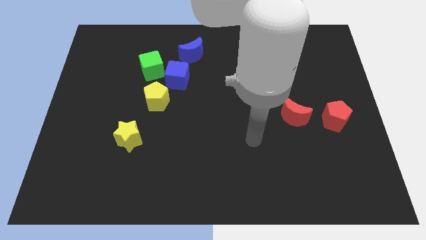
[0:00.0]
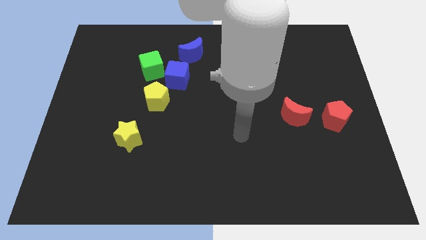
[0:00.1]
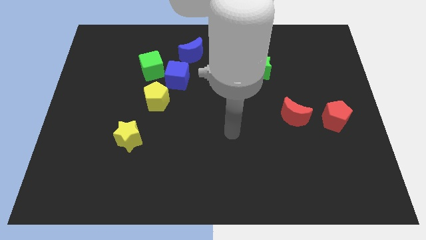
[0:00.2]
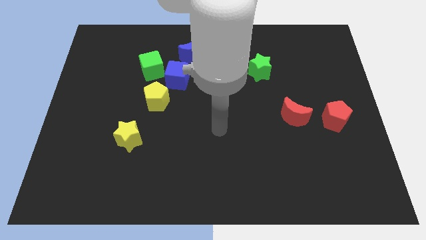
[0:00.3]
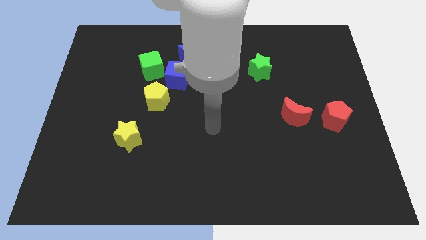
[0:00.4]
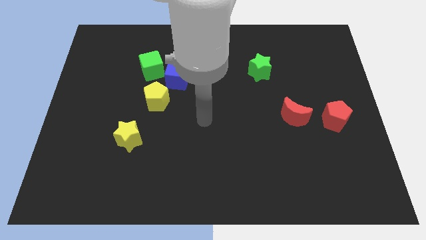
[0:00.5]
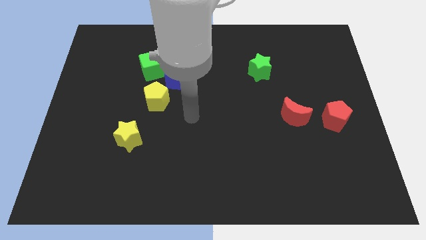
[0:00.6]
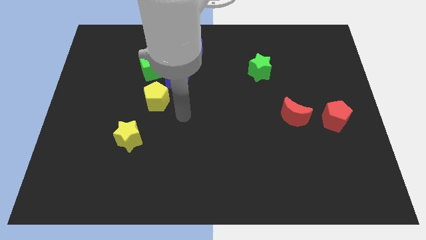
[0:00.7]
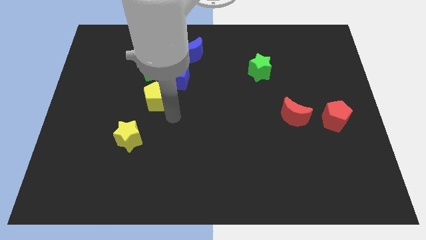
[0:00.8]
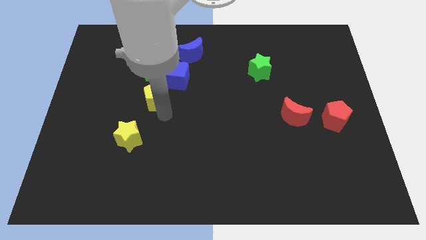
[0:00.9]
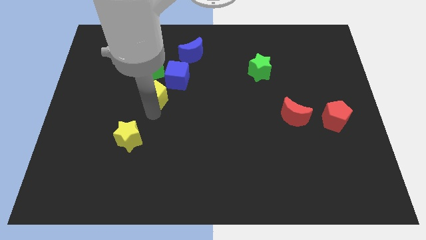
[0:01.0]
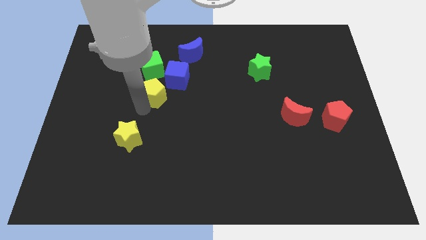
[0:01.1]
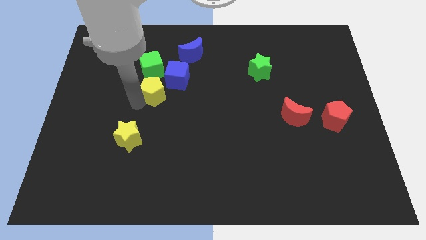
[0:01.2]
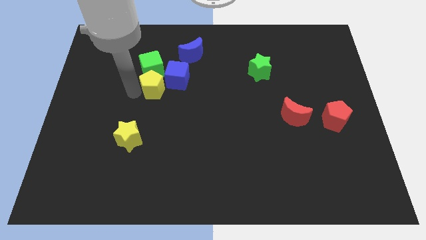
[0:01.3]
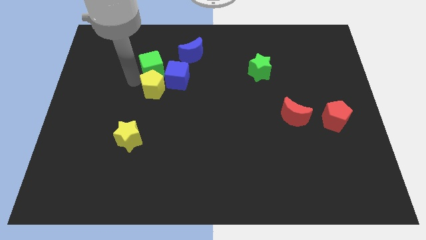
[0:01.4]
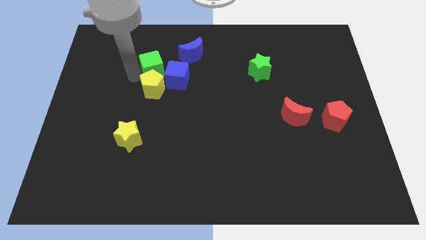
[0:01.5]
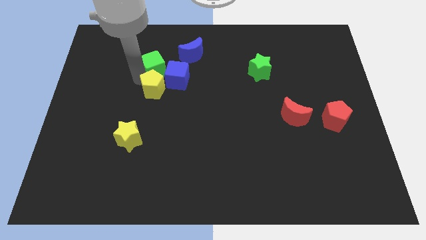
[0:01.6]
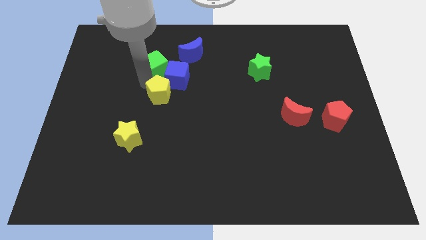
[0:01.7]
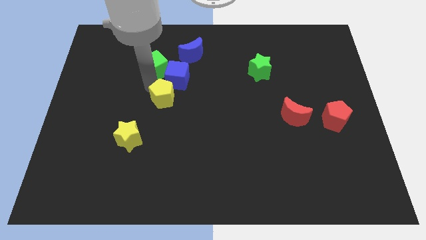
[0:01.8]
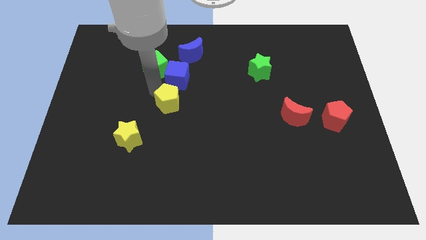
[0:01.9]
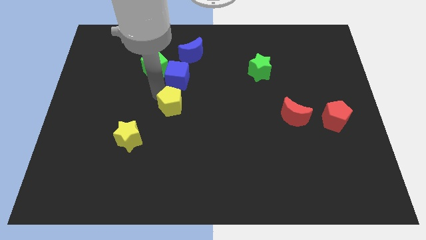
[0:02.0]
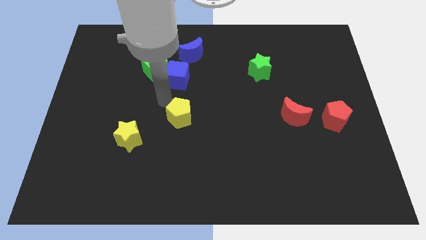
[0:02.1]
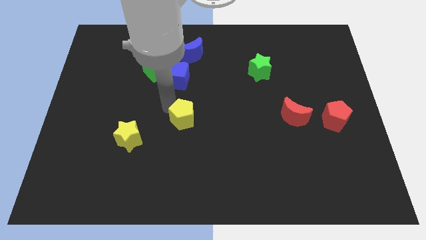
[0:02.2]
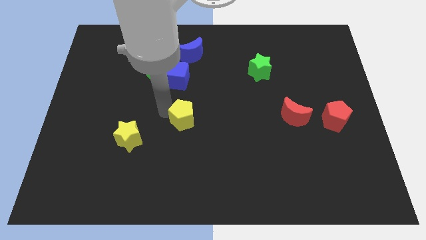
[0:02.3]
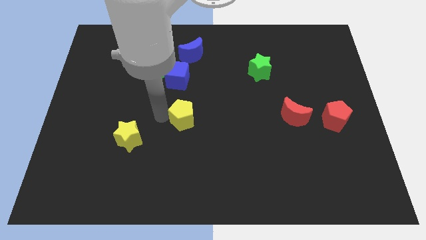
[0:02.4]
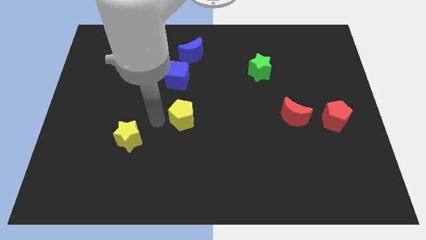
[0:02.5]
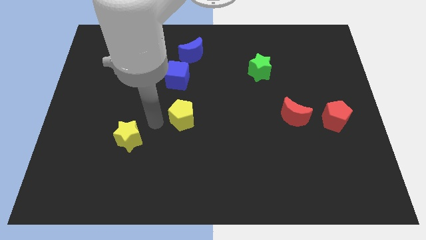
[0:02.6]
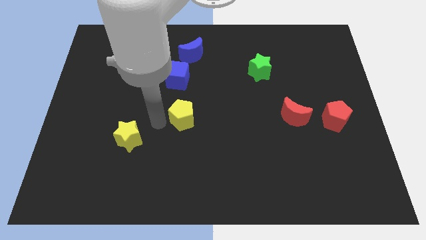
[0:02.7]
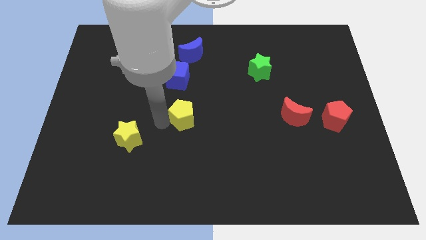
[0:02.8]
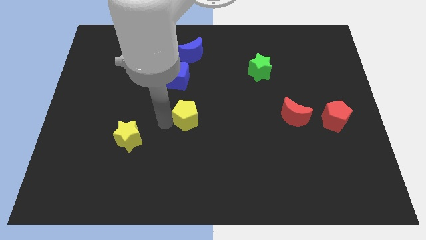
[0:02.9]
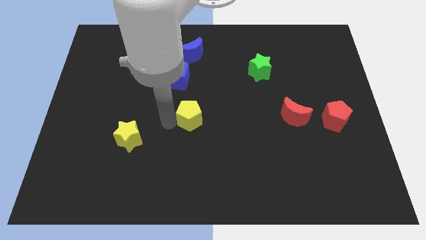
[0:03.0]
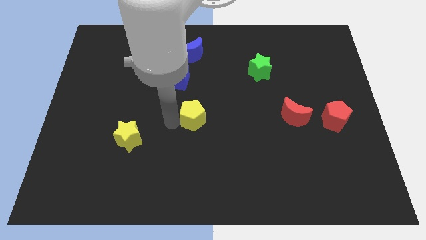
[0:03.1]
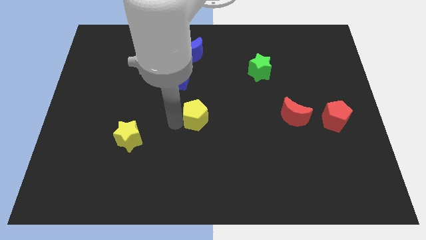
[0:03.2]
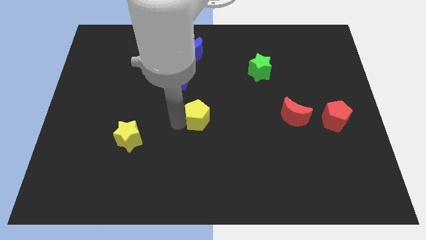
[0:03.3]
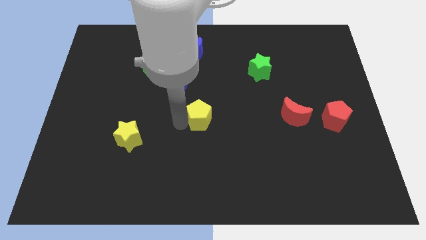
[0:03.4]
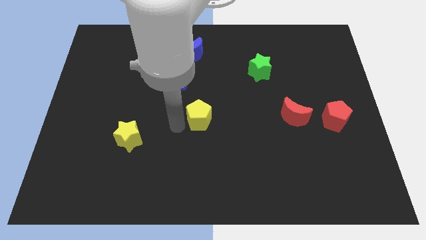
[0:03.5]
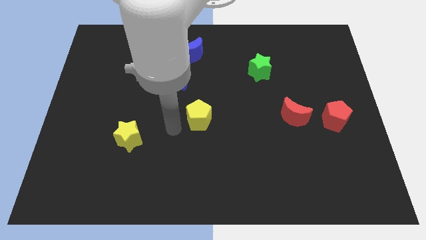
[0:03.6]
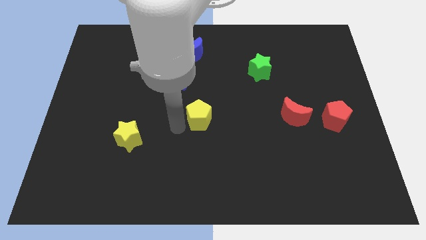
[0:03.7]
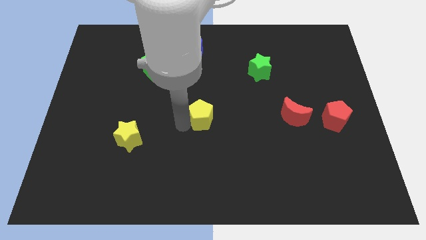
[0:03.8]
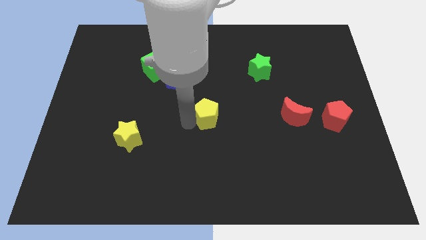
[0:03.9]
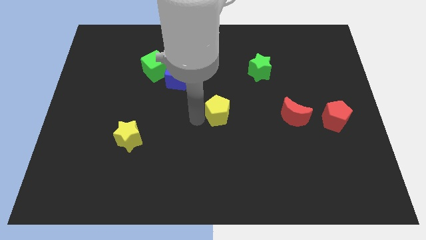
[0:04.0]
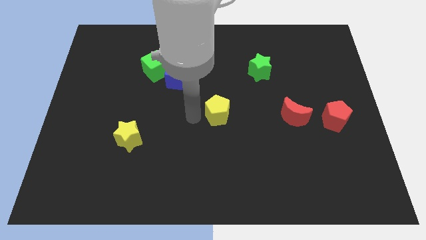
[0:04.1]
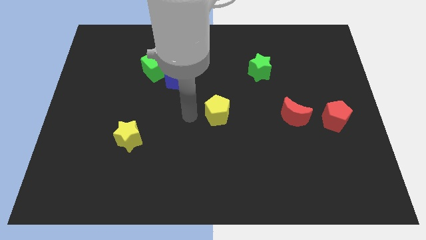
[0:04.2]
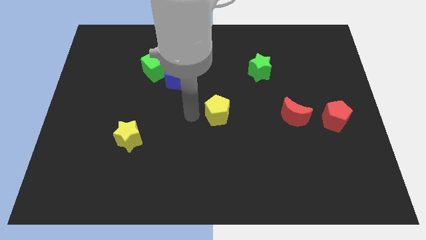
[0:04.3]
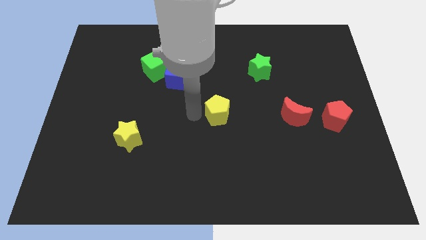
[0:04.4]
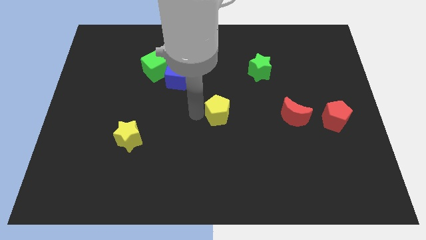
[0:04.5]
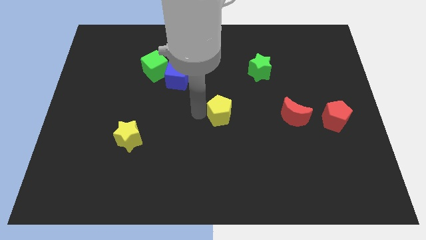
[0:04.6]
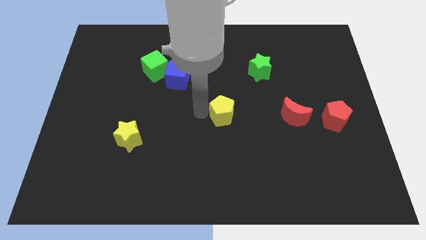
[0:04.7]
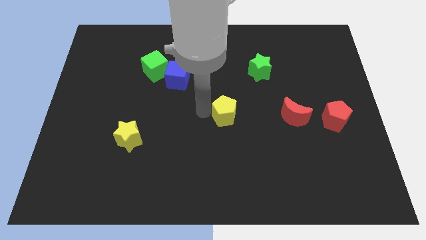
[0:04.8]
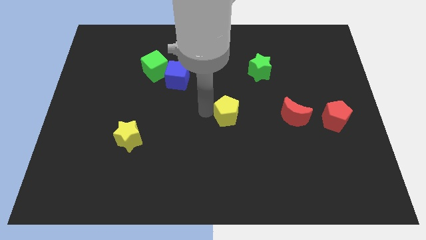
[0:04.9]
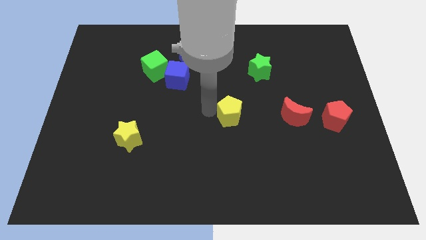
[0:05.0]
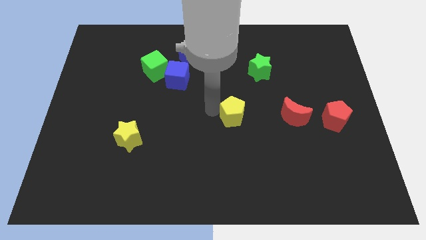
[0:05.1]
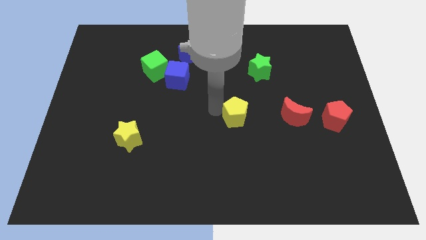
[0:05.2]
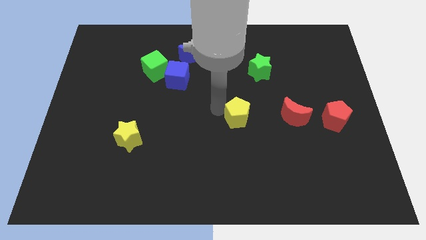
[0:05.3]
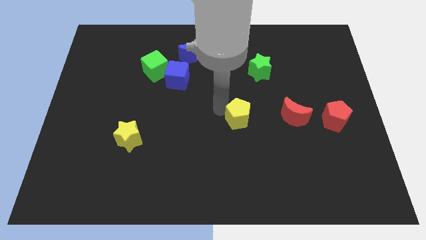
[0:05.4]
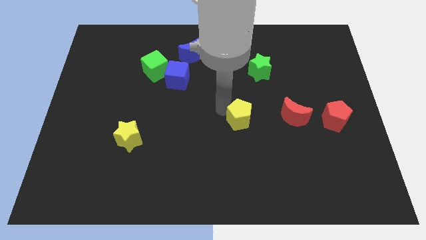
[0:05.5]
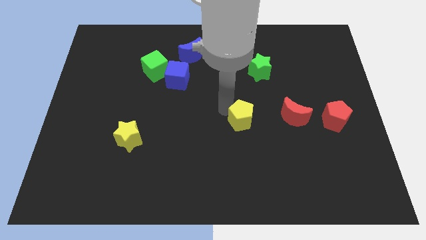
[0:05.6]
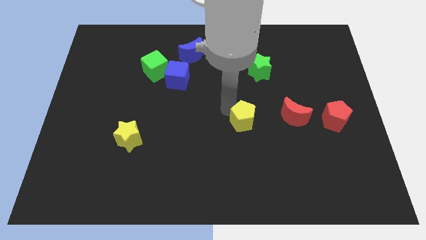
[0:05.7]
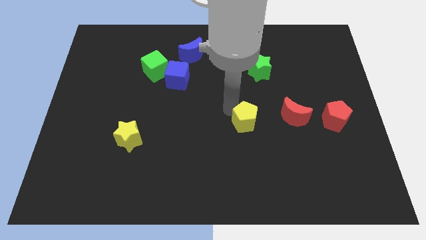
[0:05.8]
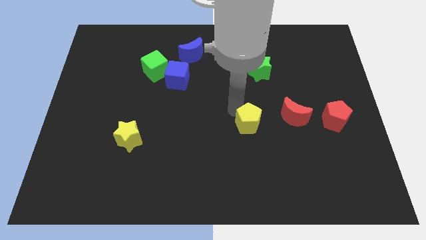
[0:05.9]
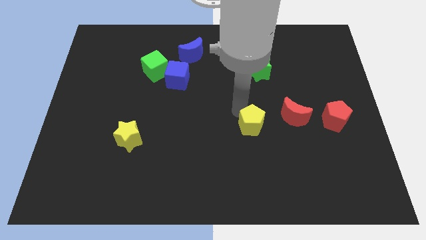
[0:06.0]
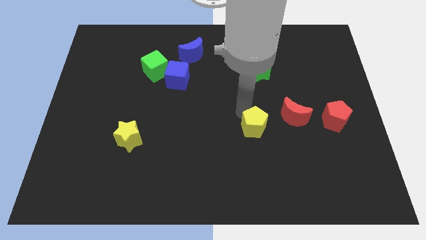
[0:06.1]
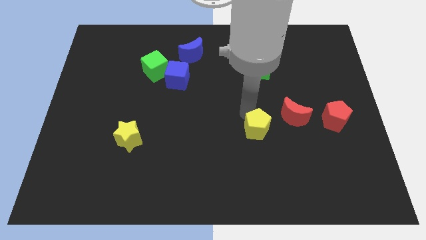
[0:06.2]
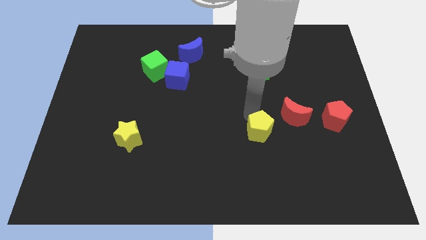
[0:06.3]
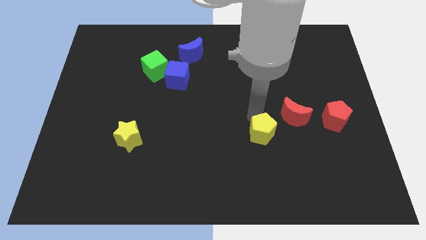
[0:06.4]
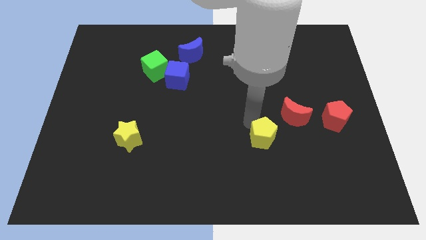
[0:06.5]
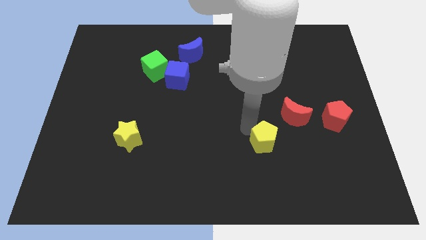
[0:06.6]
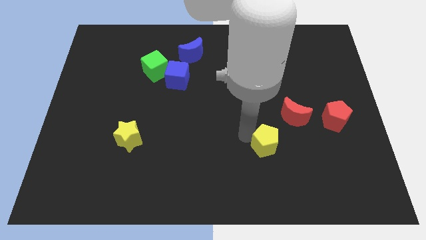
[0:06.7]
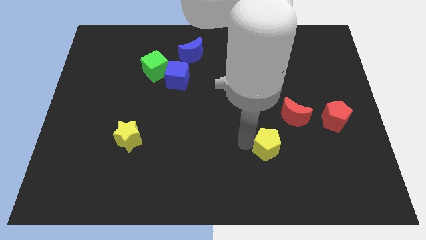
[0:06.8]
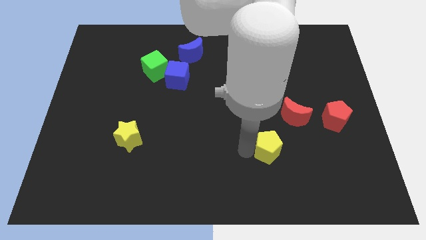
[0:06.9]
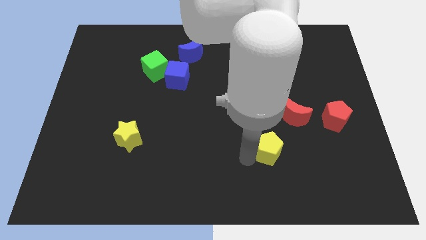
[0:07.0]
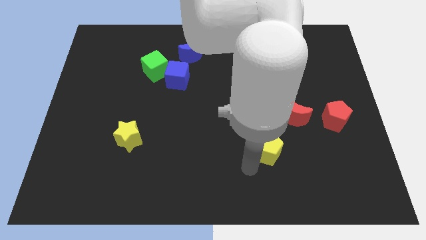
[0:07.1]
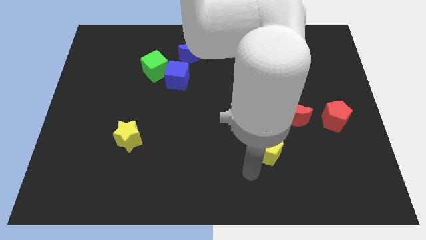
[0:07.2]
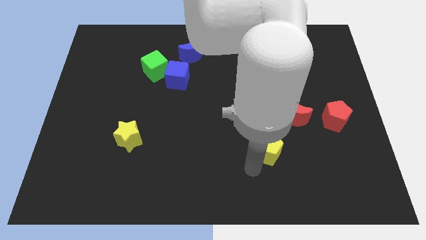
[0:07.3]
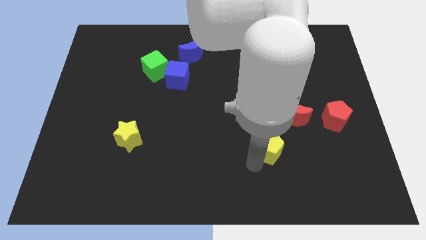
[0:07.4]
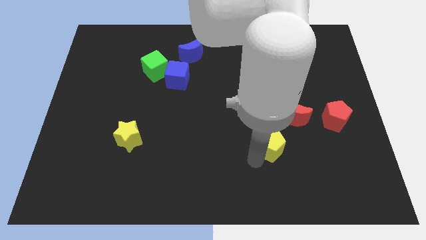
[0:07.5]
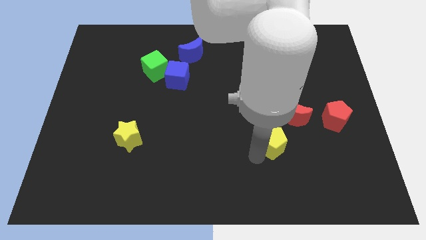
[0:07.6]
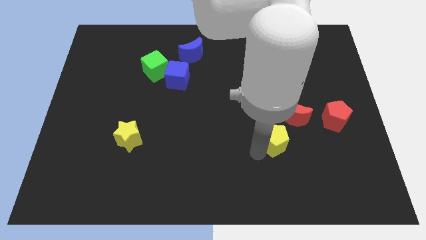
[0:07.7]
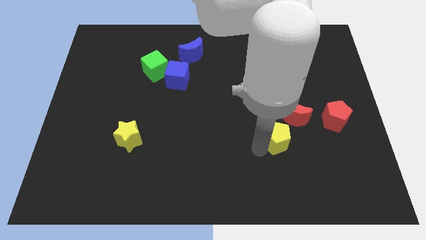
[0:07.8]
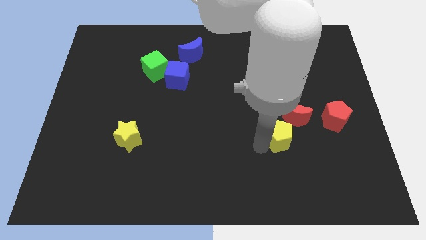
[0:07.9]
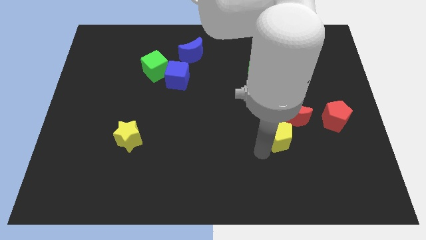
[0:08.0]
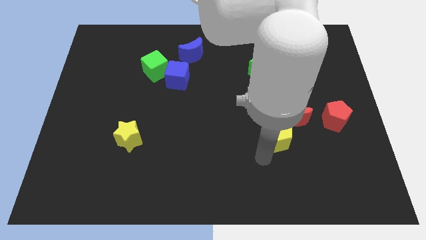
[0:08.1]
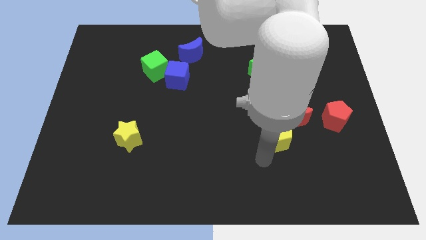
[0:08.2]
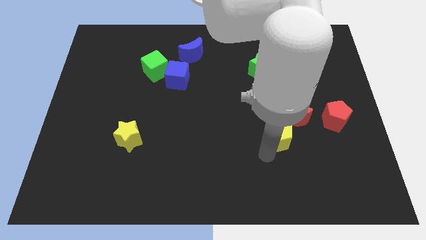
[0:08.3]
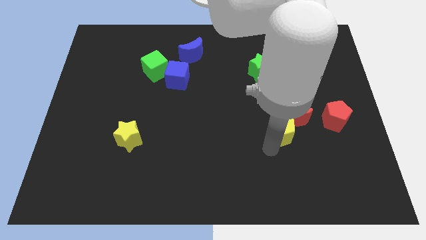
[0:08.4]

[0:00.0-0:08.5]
push the yellow pentagon to the left of the red pentagon
